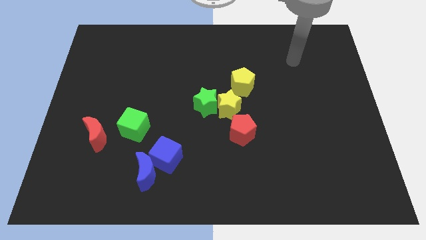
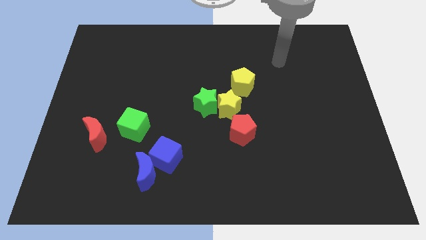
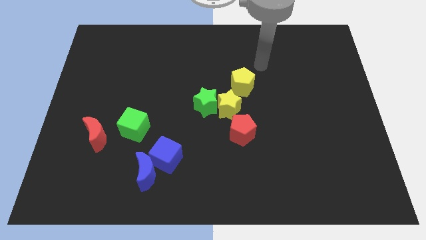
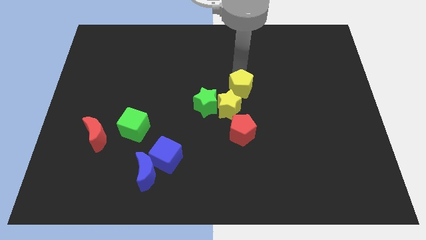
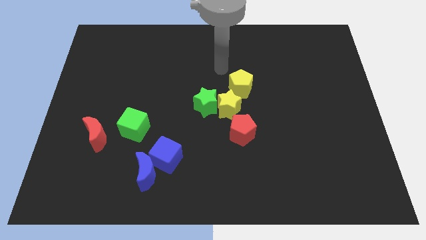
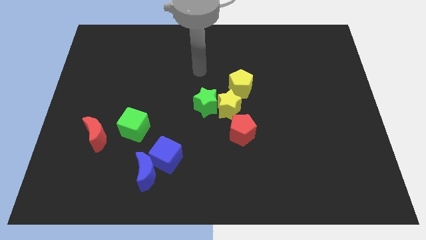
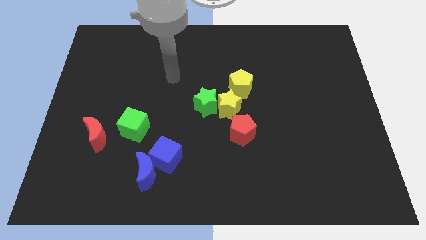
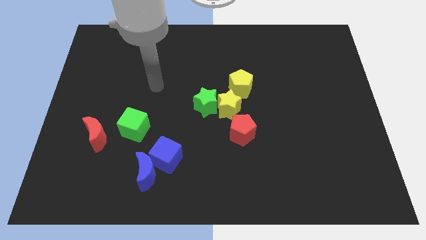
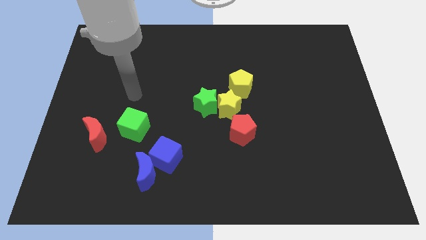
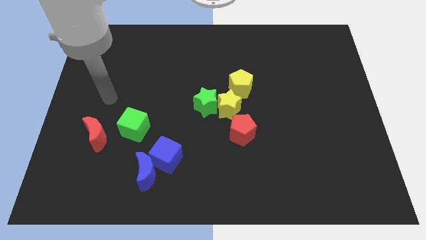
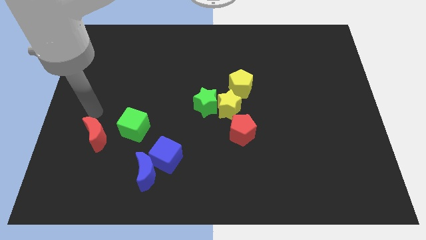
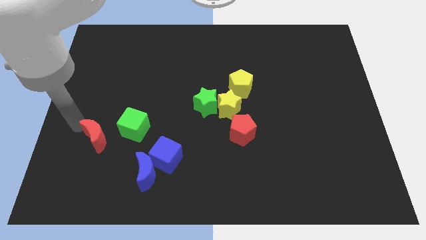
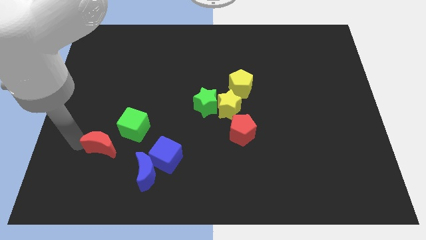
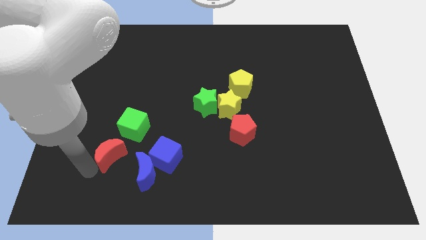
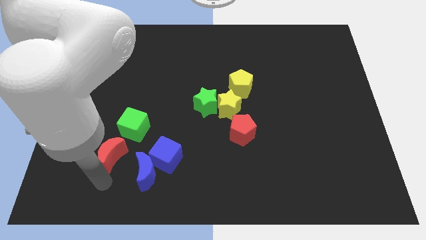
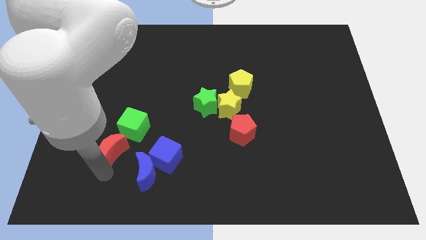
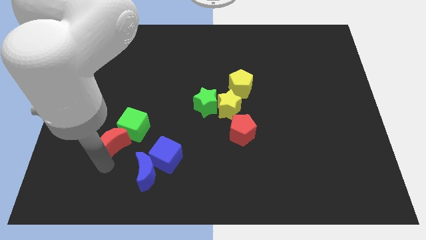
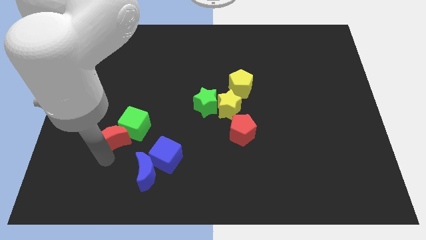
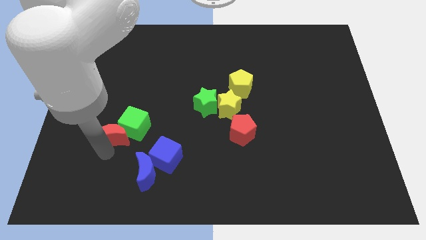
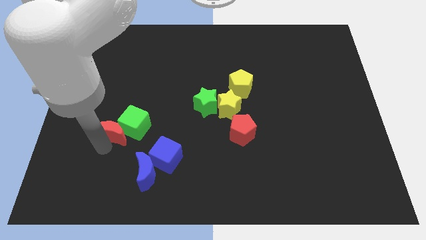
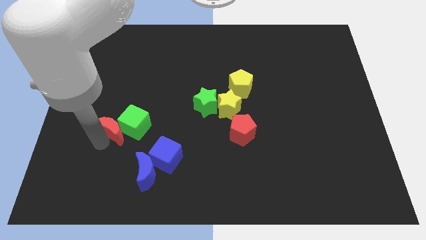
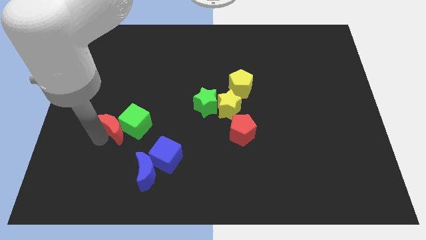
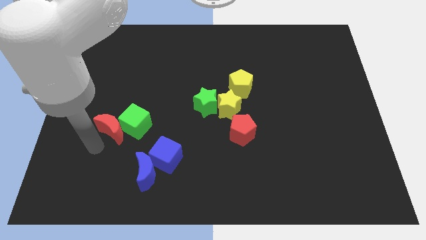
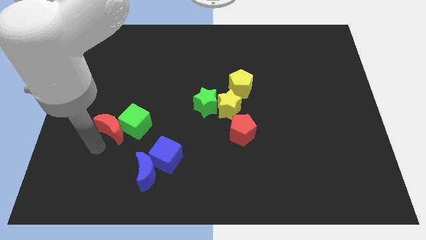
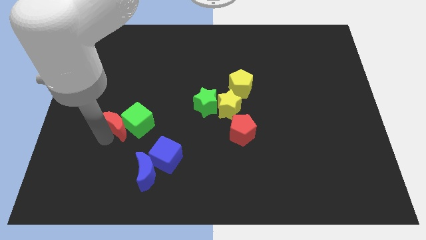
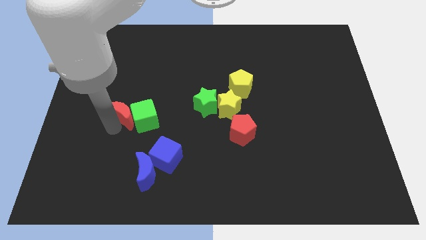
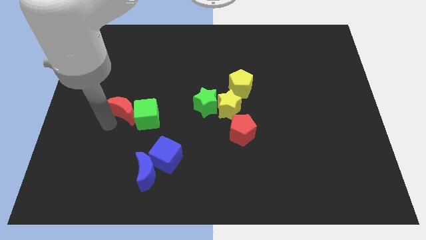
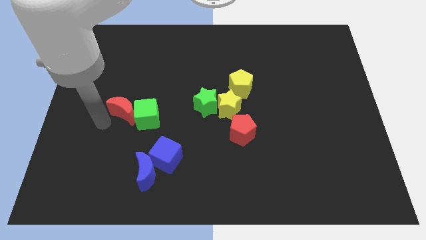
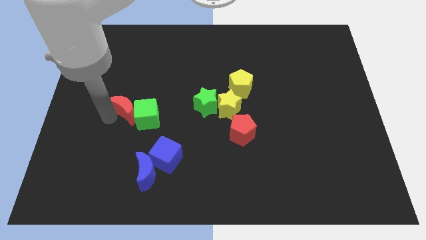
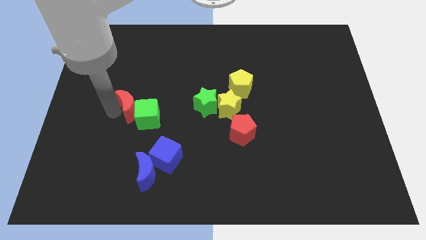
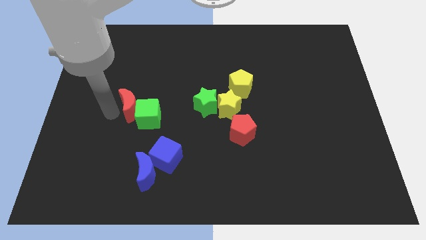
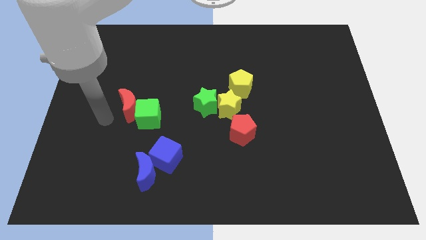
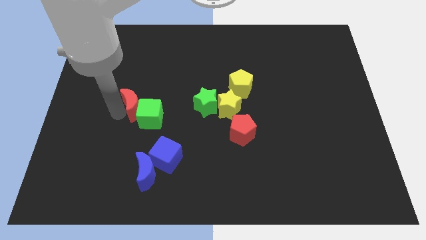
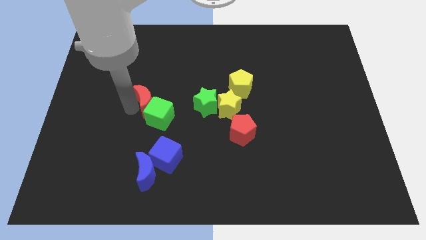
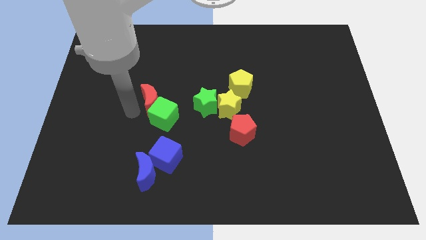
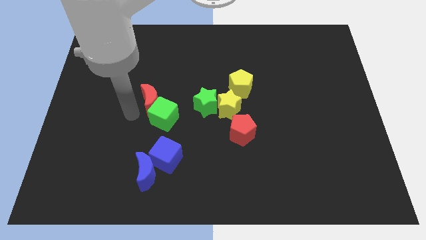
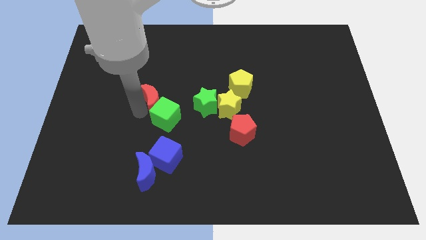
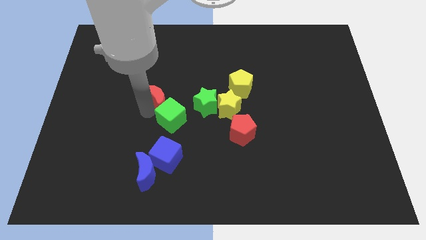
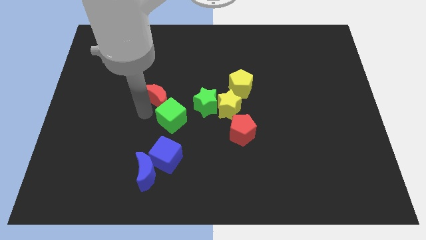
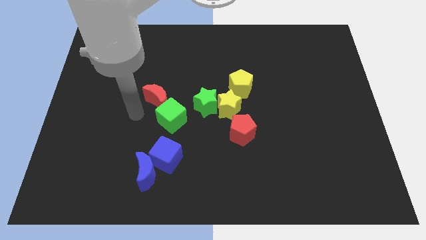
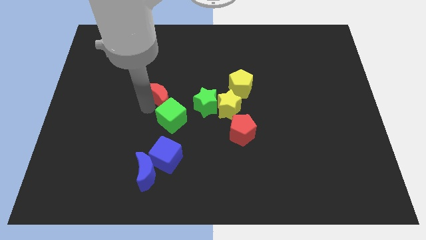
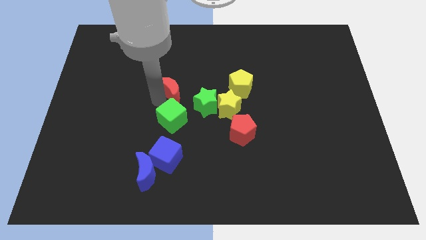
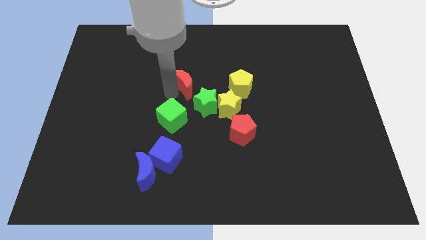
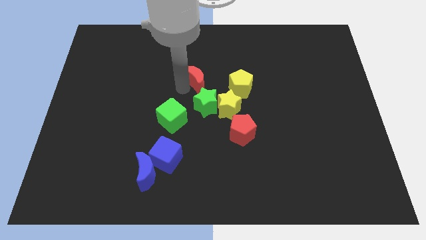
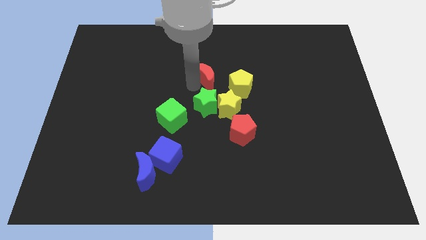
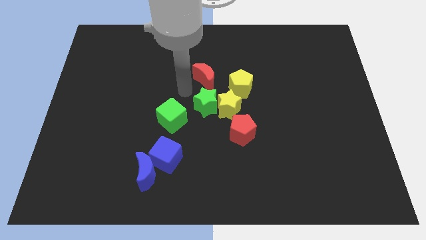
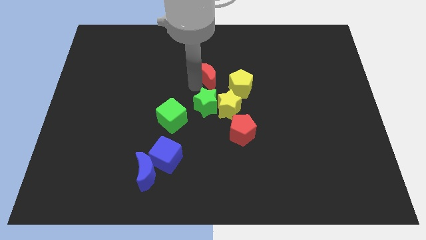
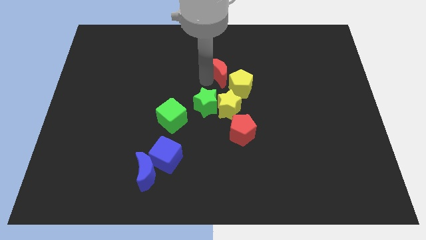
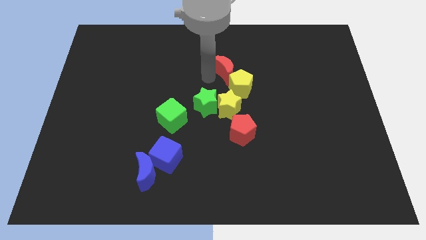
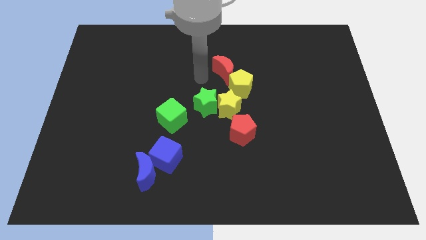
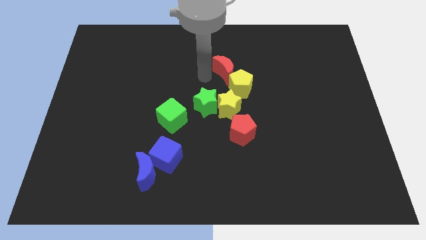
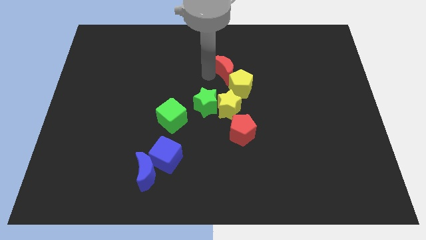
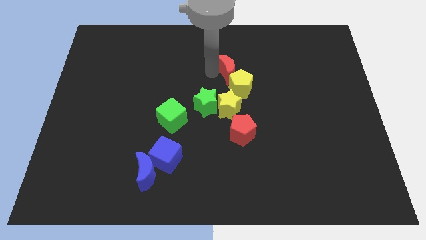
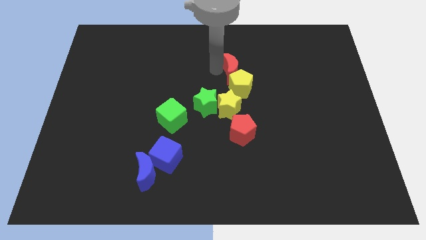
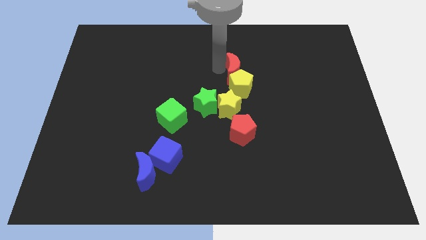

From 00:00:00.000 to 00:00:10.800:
move the red moon to the top right of the yellow pentagon

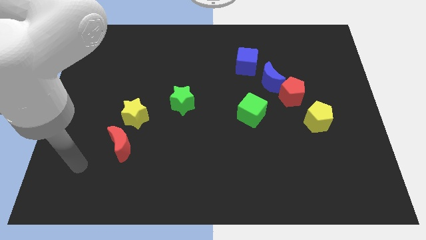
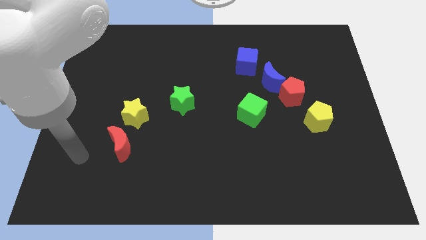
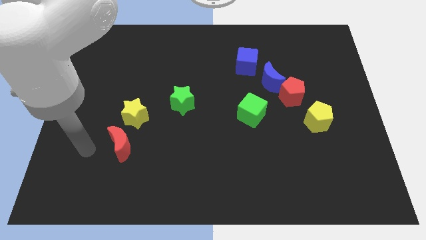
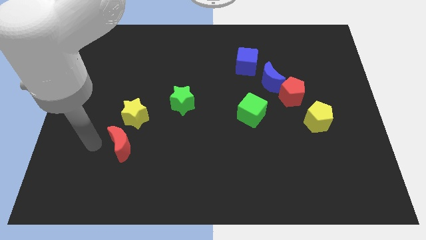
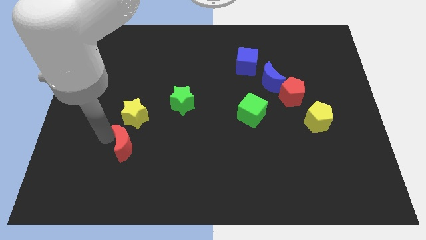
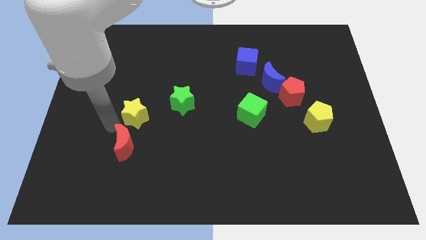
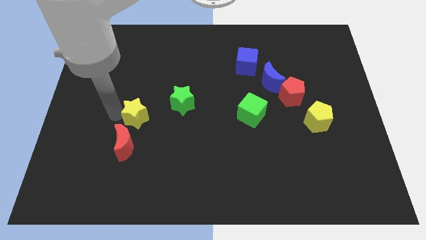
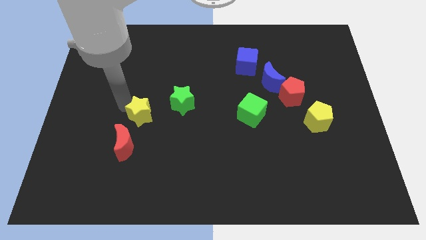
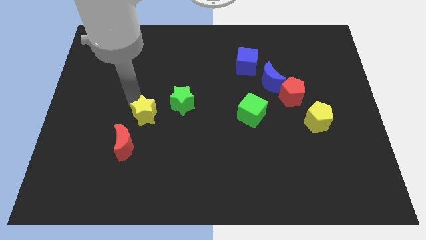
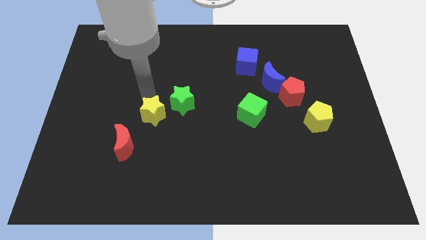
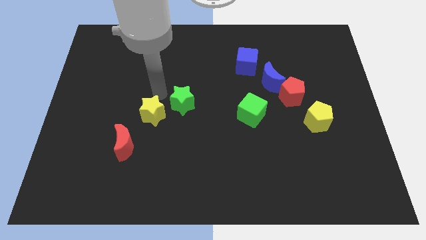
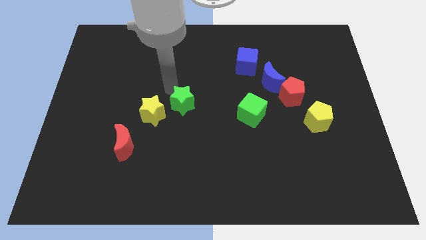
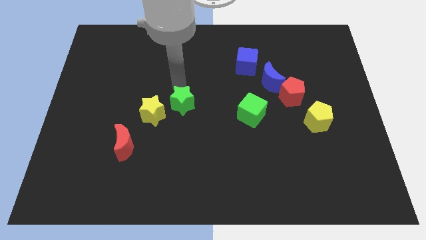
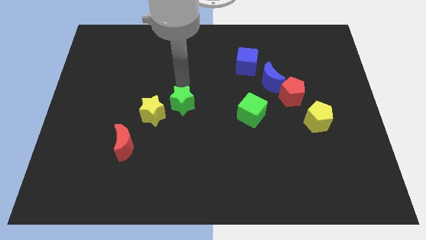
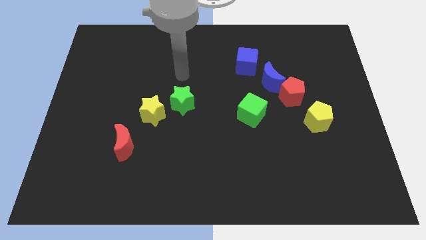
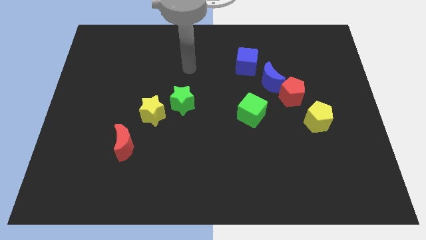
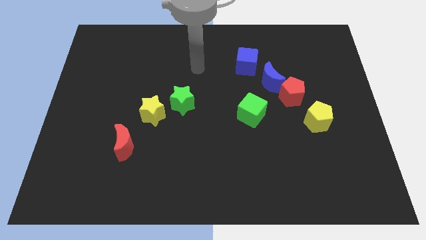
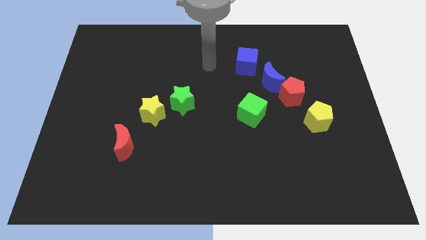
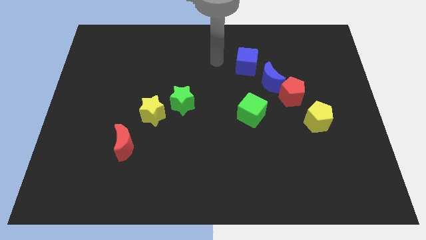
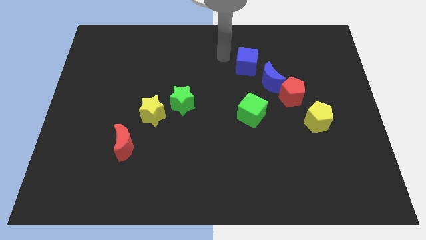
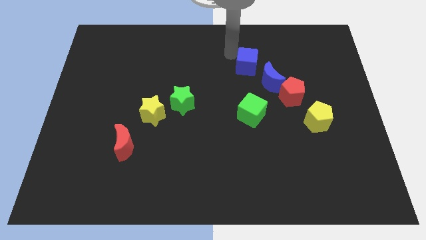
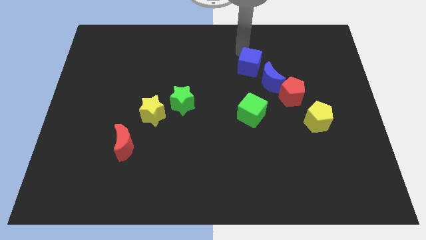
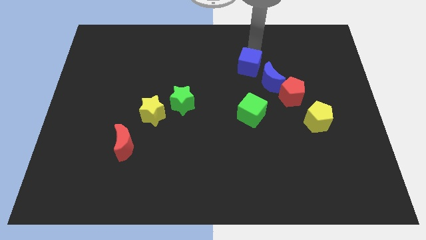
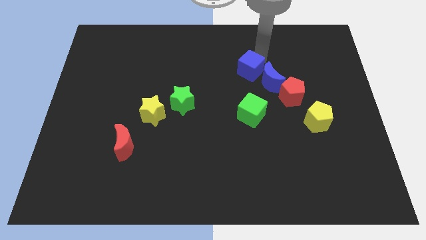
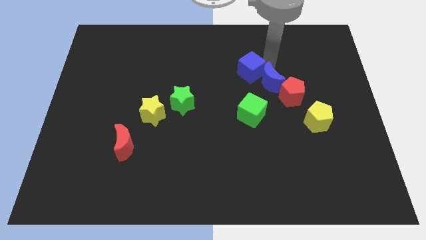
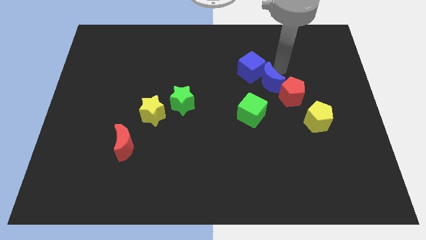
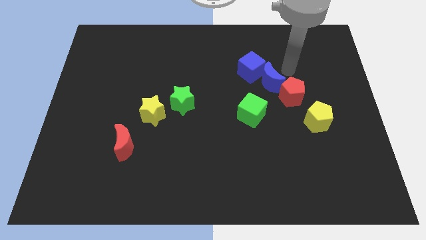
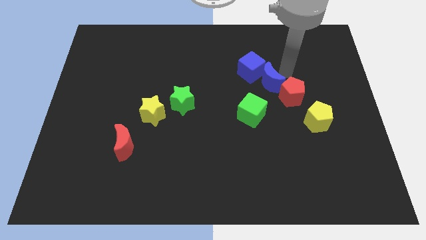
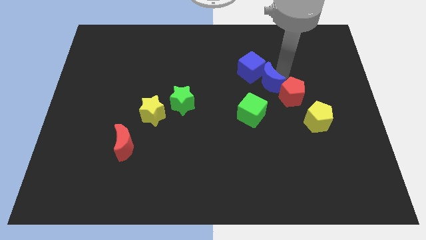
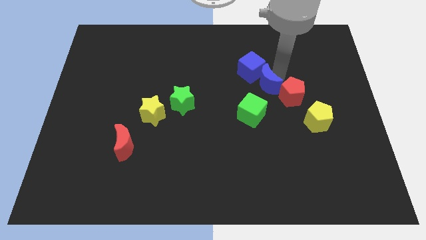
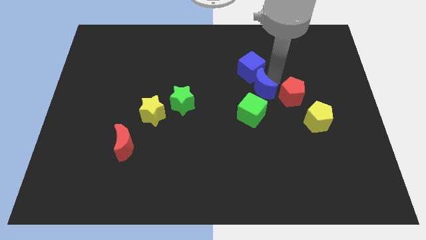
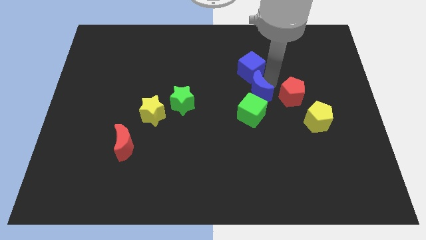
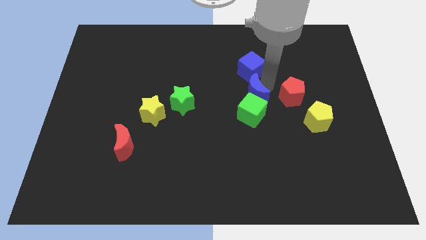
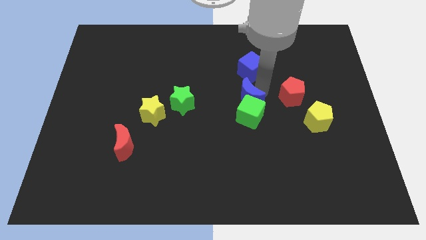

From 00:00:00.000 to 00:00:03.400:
put the blue moon right of the green star
